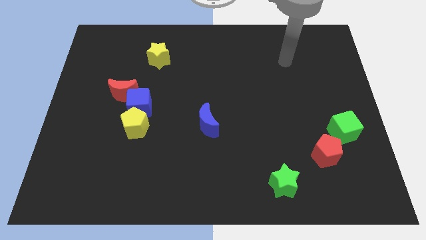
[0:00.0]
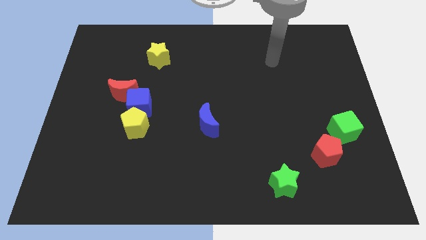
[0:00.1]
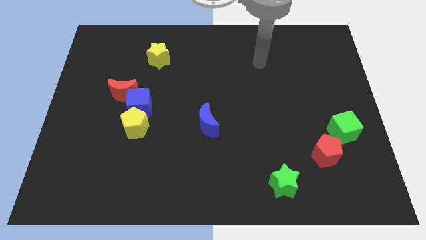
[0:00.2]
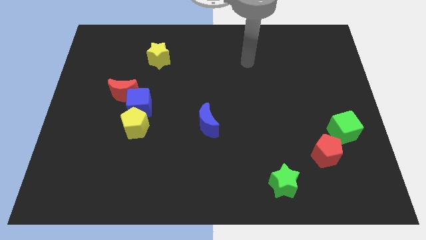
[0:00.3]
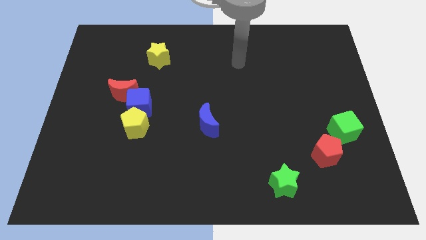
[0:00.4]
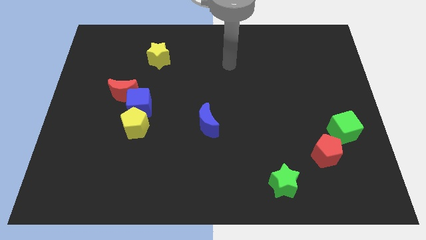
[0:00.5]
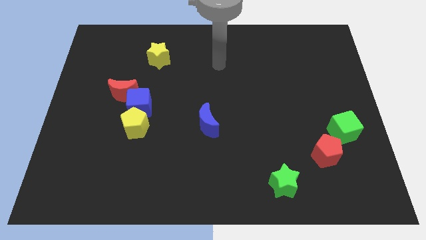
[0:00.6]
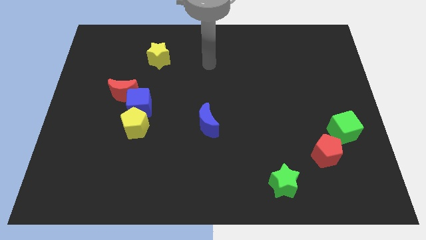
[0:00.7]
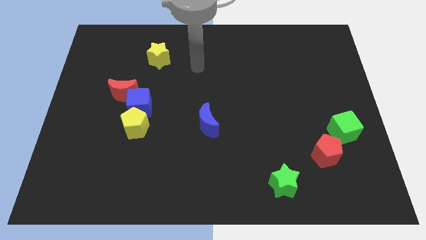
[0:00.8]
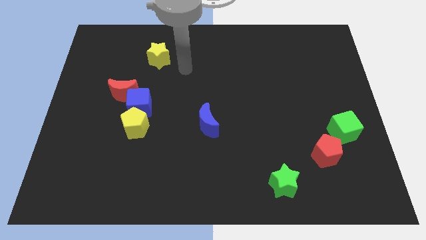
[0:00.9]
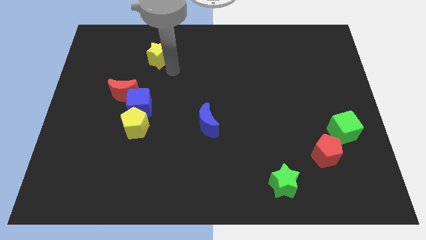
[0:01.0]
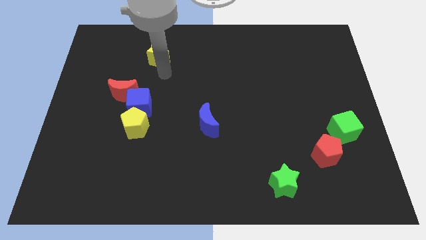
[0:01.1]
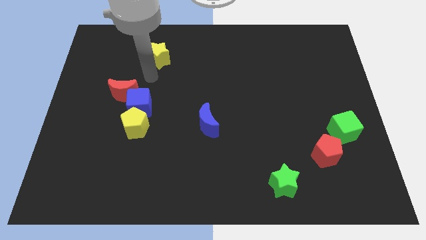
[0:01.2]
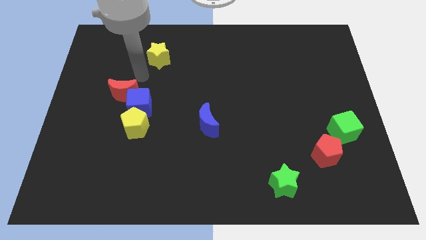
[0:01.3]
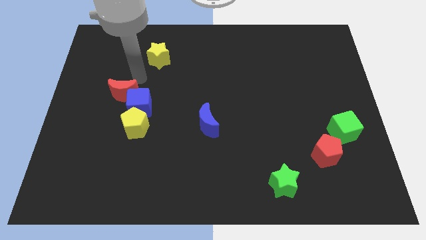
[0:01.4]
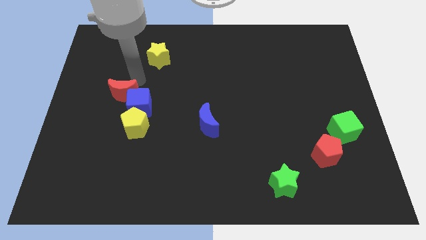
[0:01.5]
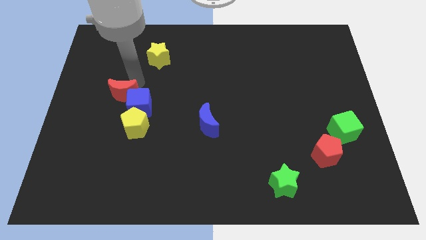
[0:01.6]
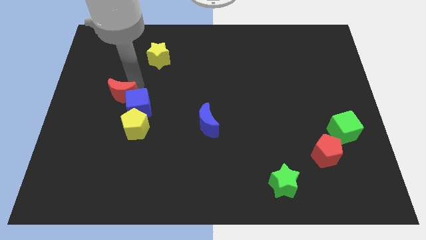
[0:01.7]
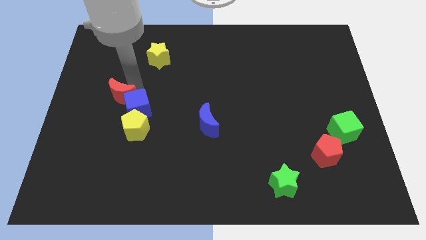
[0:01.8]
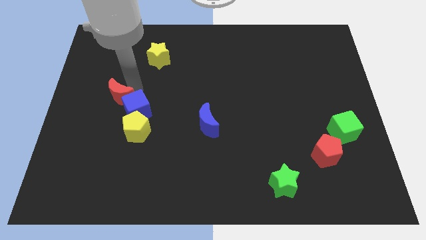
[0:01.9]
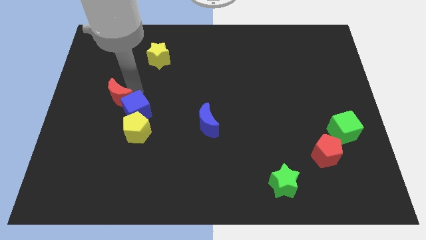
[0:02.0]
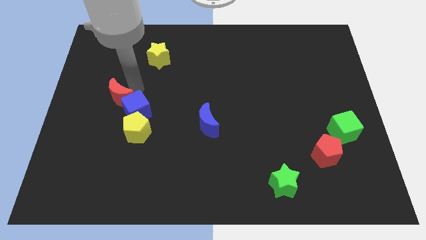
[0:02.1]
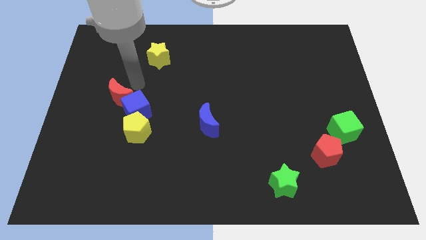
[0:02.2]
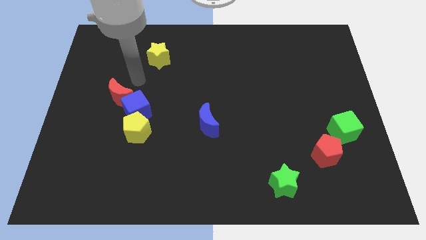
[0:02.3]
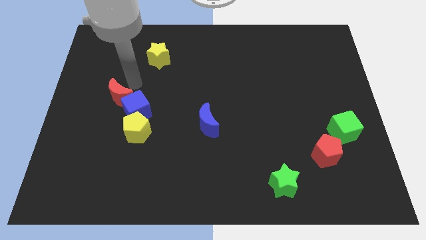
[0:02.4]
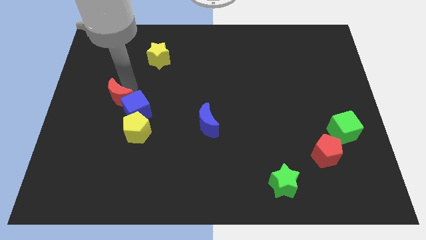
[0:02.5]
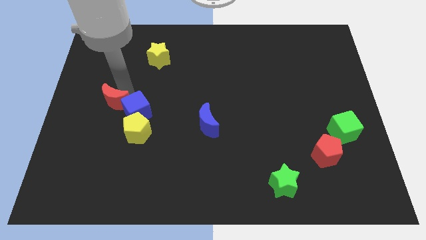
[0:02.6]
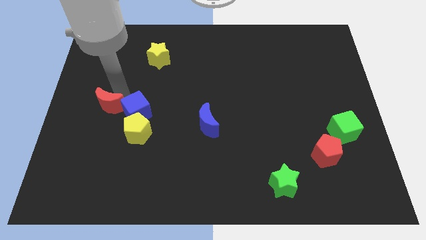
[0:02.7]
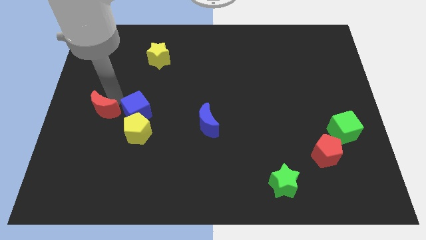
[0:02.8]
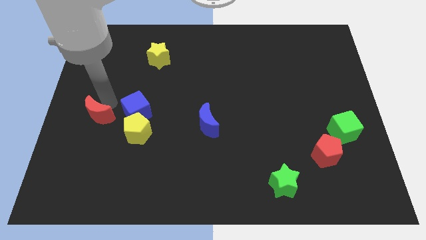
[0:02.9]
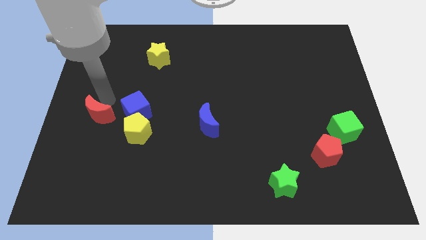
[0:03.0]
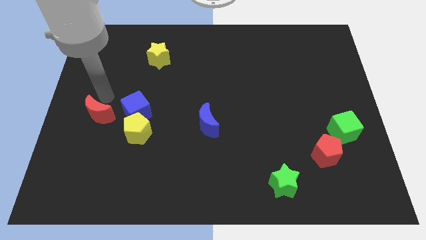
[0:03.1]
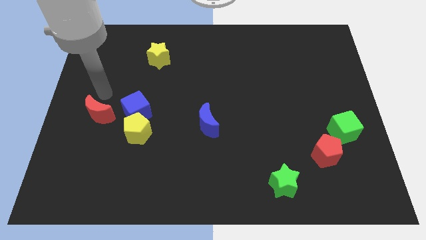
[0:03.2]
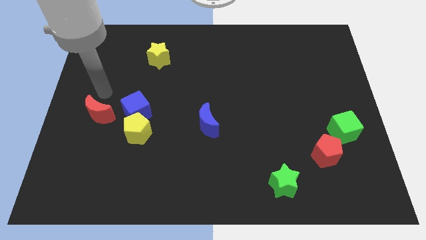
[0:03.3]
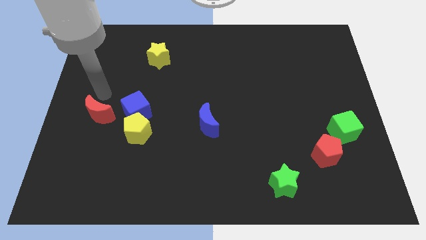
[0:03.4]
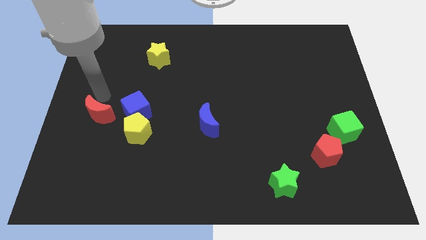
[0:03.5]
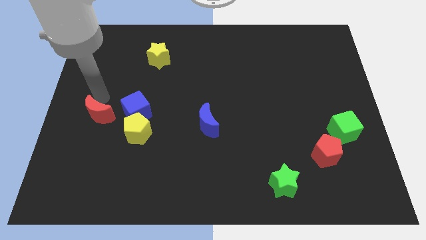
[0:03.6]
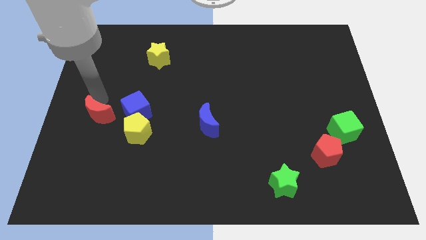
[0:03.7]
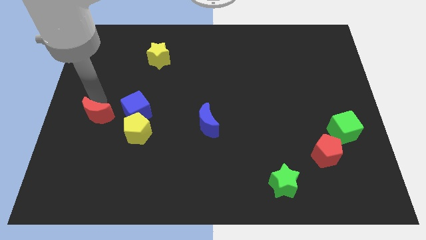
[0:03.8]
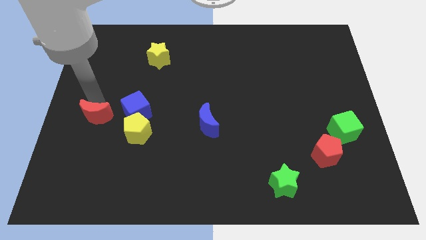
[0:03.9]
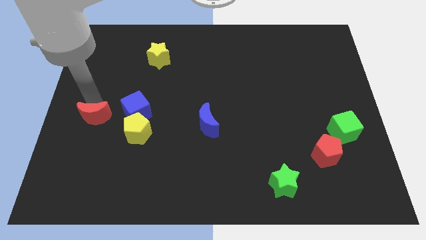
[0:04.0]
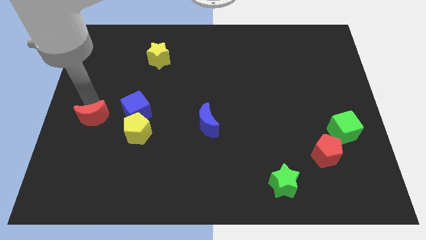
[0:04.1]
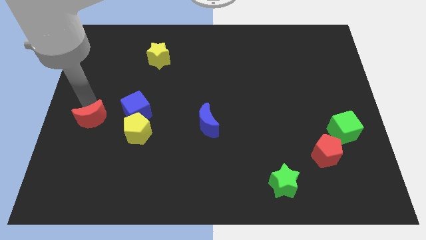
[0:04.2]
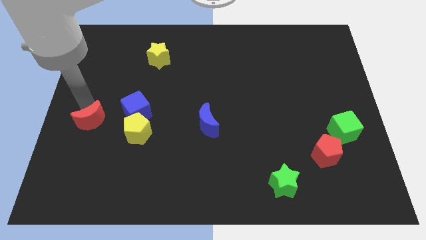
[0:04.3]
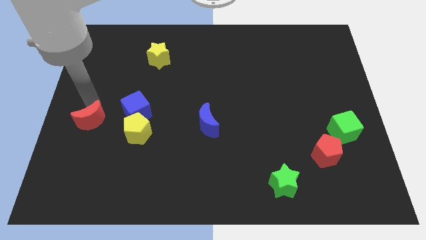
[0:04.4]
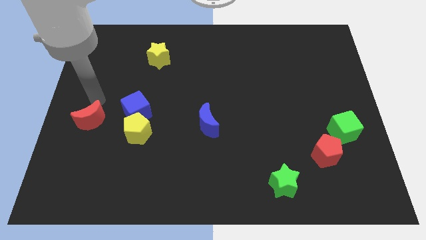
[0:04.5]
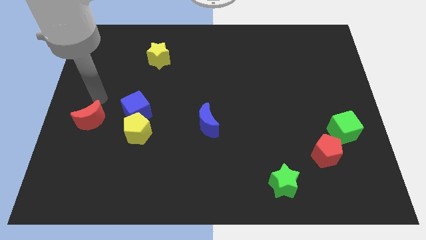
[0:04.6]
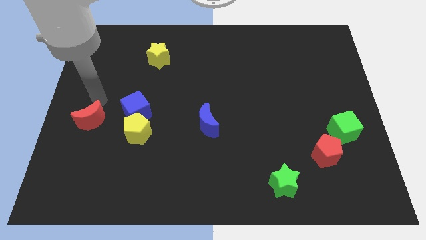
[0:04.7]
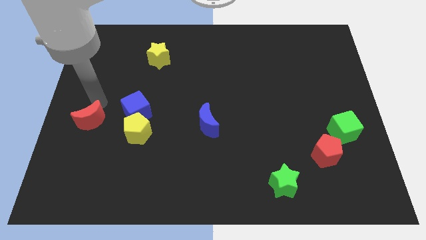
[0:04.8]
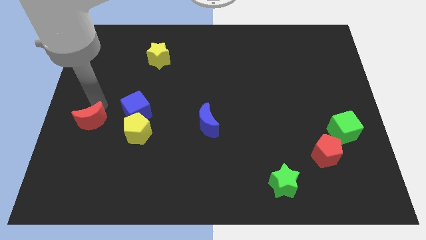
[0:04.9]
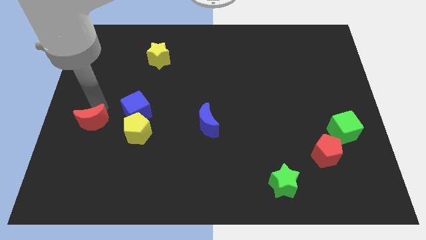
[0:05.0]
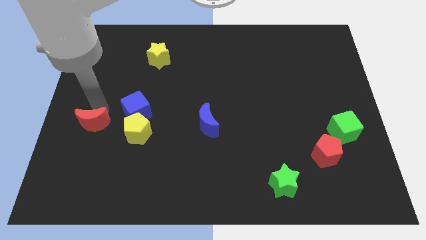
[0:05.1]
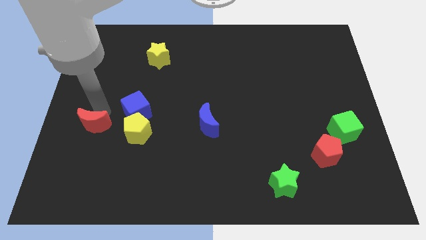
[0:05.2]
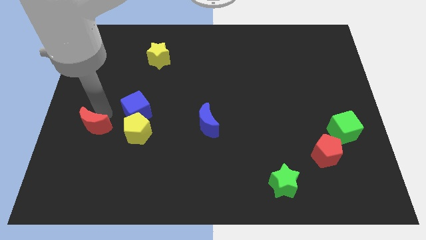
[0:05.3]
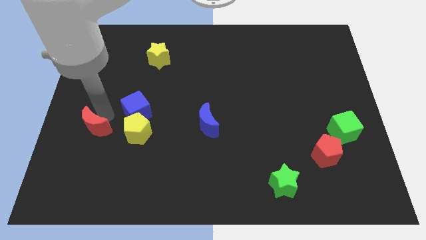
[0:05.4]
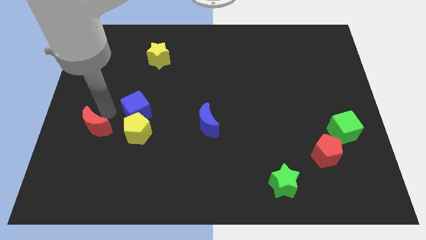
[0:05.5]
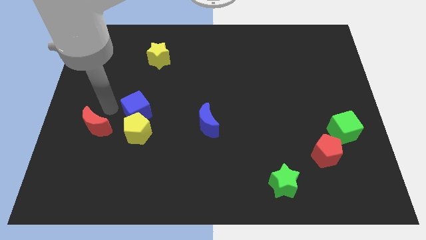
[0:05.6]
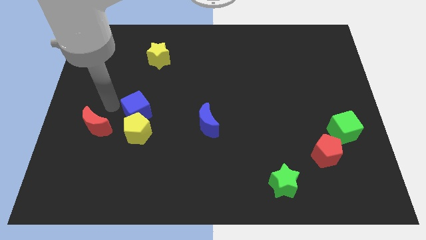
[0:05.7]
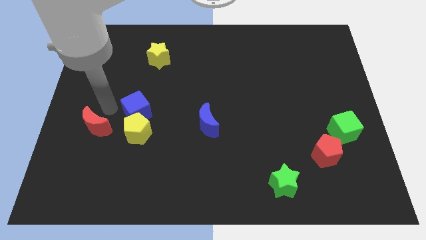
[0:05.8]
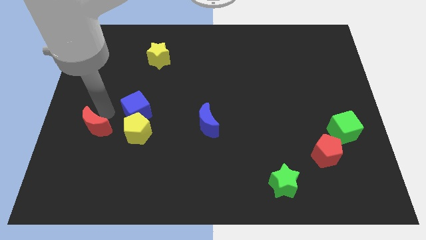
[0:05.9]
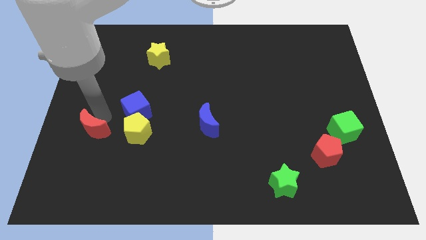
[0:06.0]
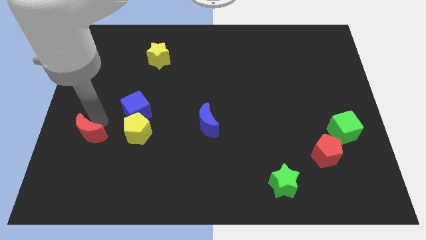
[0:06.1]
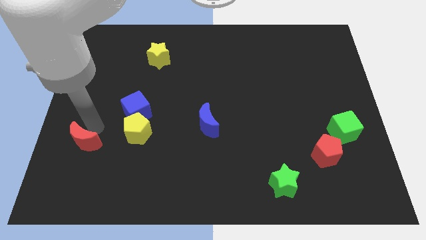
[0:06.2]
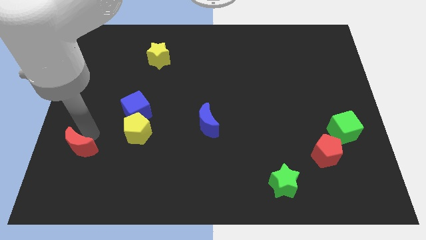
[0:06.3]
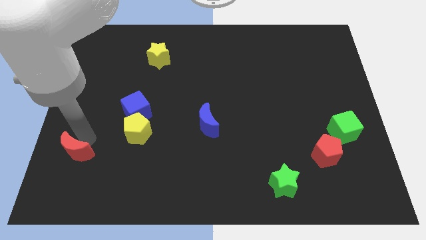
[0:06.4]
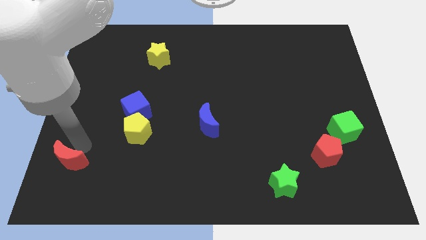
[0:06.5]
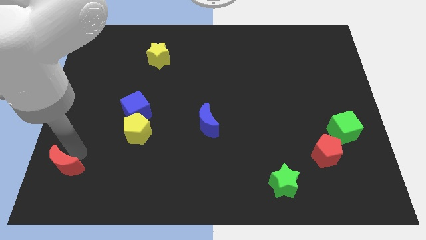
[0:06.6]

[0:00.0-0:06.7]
slide the red moon to the bottom left of the board

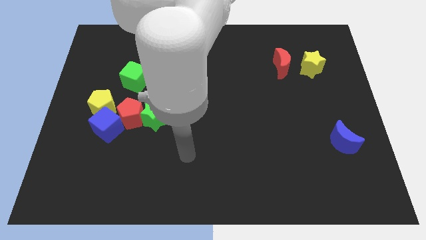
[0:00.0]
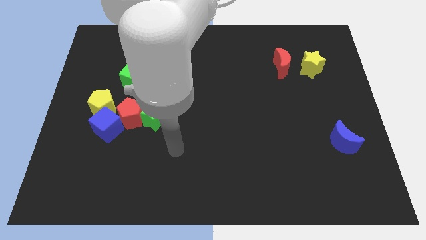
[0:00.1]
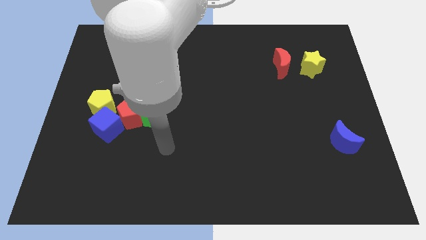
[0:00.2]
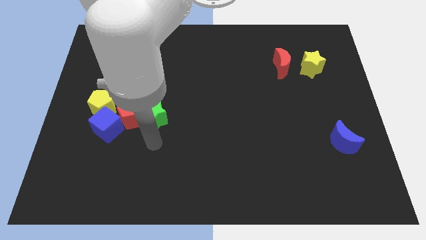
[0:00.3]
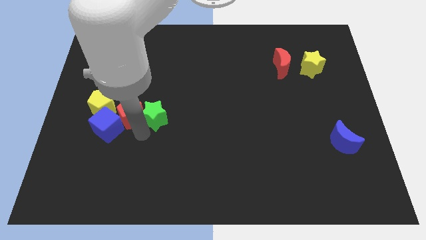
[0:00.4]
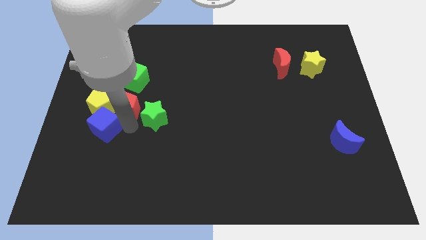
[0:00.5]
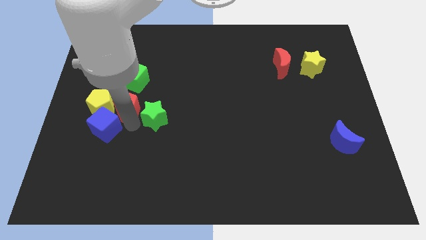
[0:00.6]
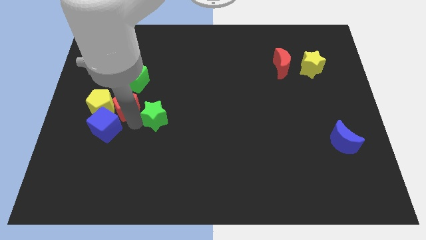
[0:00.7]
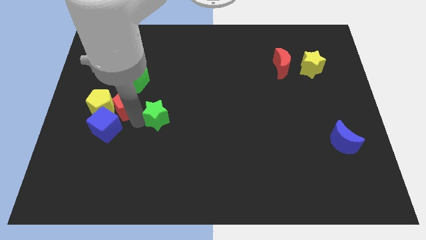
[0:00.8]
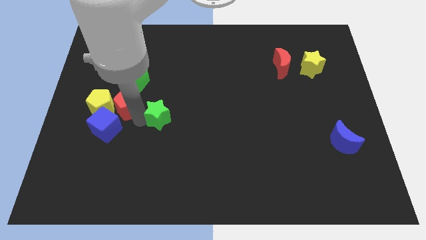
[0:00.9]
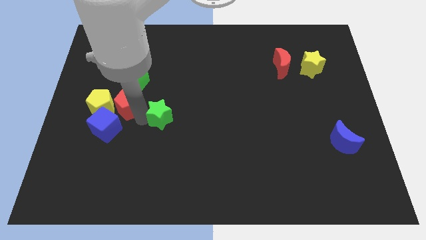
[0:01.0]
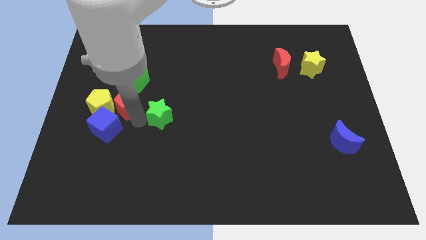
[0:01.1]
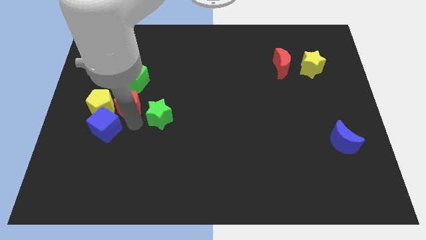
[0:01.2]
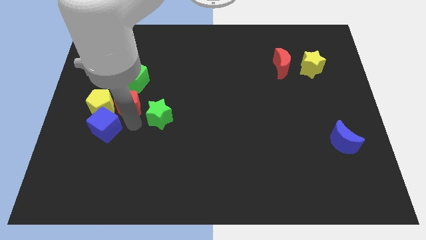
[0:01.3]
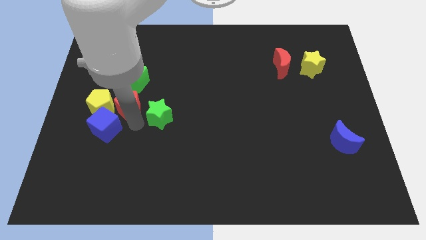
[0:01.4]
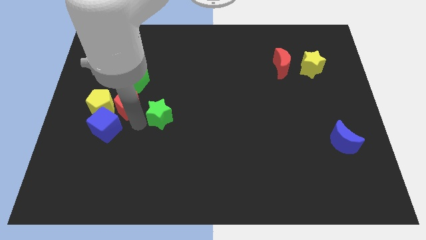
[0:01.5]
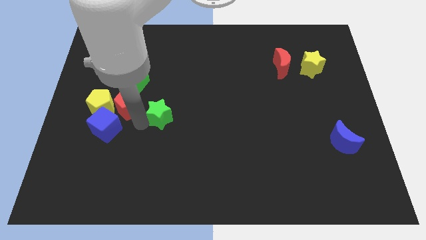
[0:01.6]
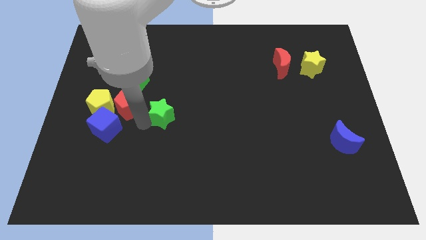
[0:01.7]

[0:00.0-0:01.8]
push the green star to the middle
